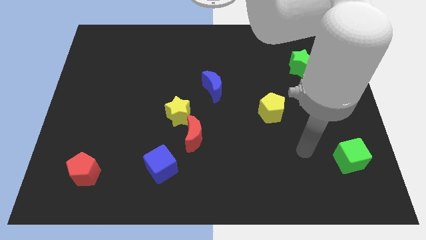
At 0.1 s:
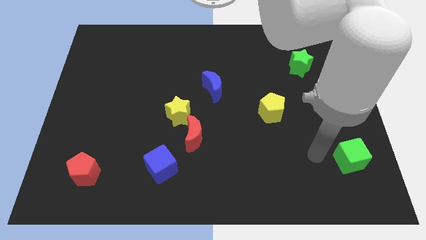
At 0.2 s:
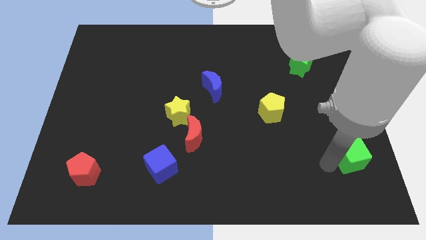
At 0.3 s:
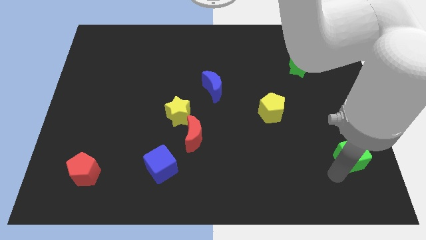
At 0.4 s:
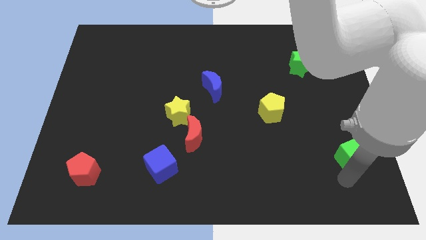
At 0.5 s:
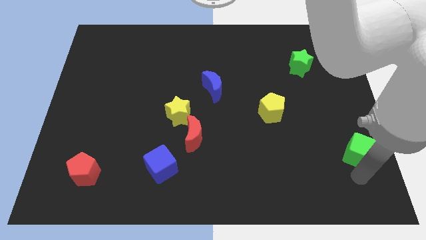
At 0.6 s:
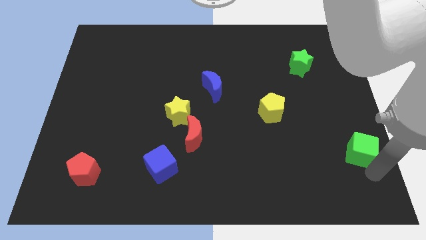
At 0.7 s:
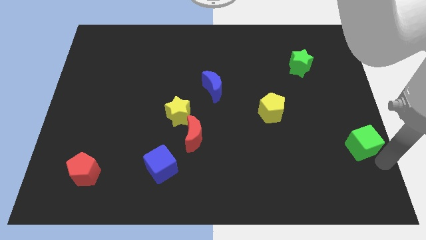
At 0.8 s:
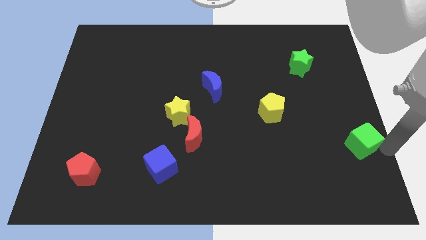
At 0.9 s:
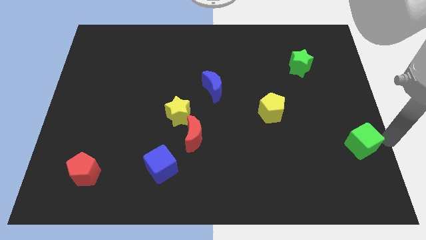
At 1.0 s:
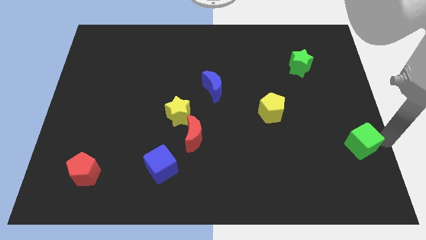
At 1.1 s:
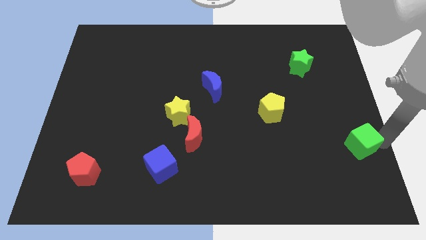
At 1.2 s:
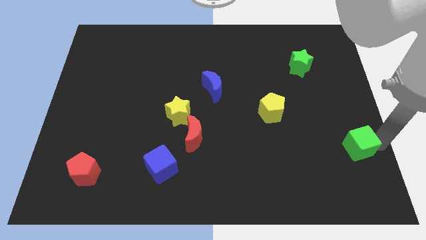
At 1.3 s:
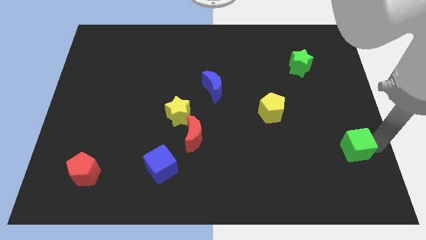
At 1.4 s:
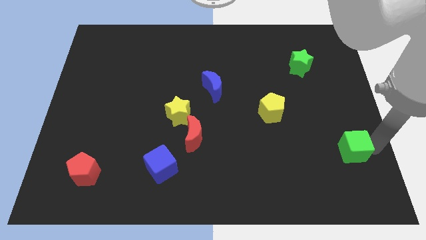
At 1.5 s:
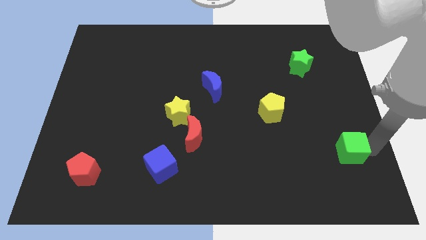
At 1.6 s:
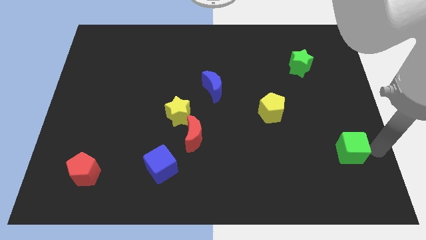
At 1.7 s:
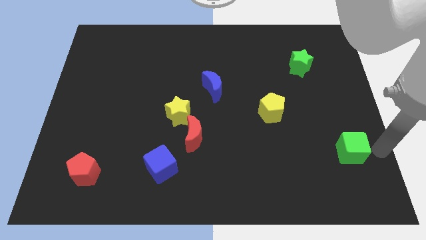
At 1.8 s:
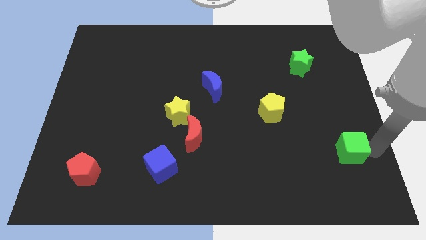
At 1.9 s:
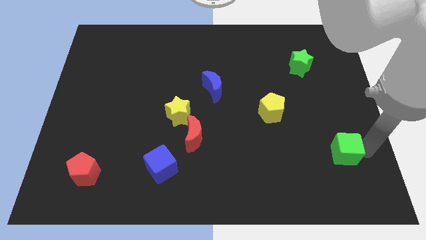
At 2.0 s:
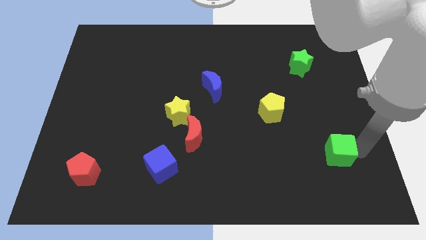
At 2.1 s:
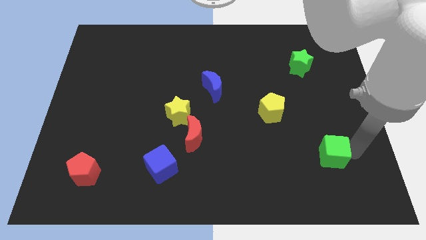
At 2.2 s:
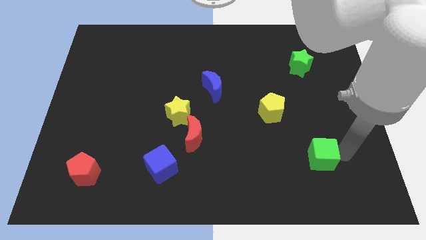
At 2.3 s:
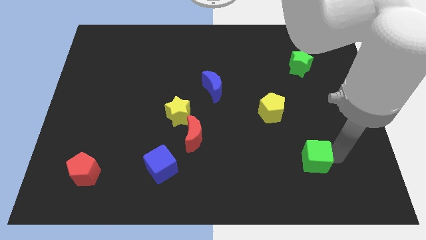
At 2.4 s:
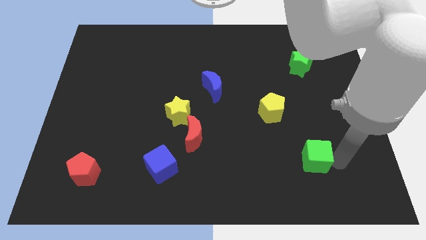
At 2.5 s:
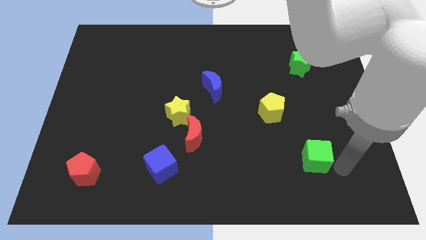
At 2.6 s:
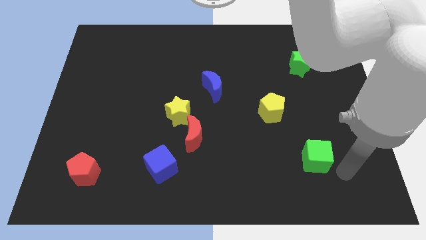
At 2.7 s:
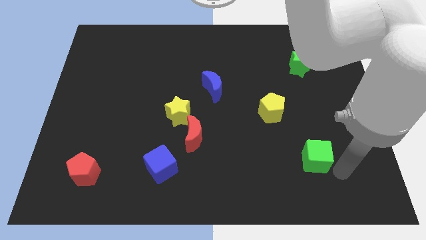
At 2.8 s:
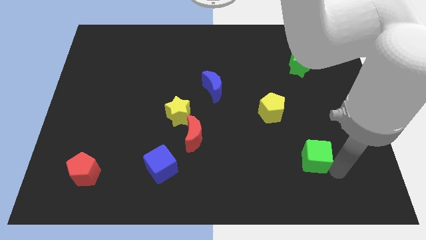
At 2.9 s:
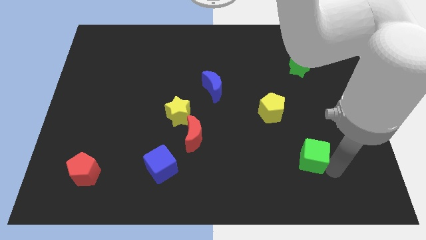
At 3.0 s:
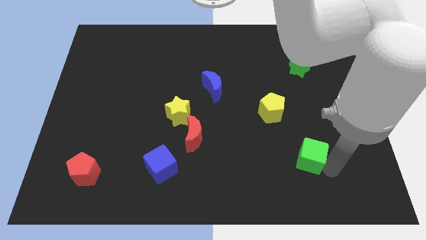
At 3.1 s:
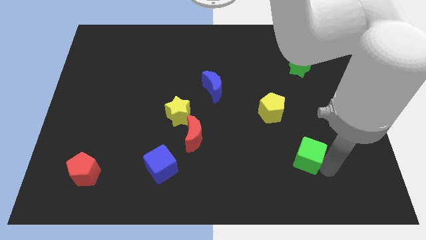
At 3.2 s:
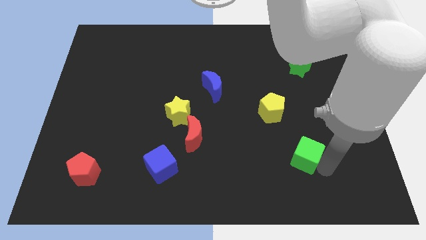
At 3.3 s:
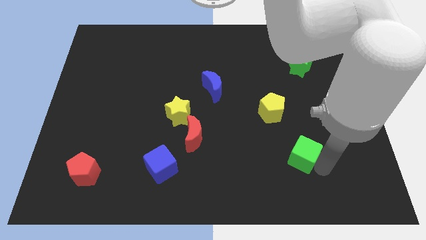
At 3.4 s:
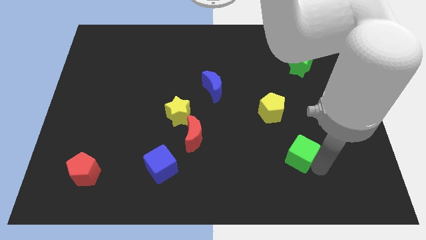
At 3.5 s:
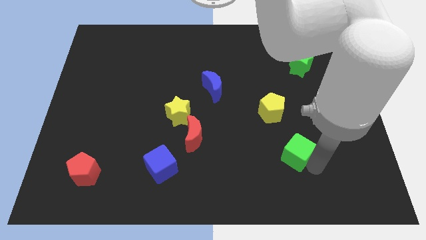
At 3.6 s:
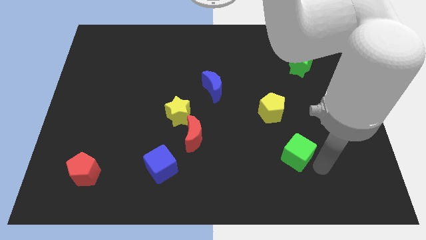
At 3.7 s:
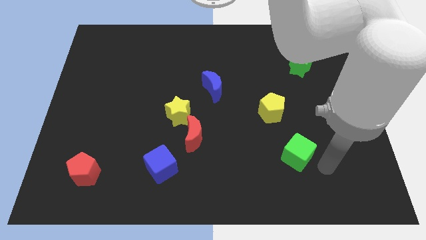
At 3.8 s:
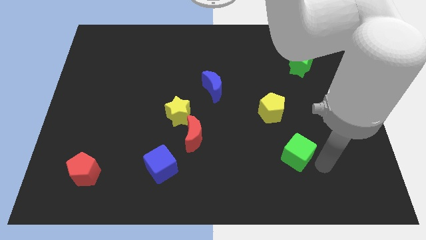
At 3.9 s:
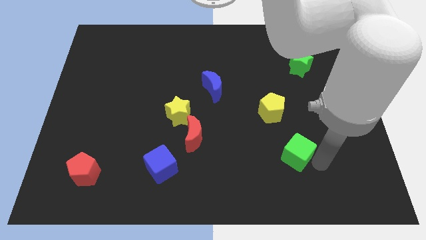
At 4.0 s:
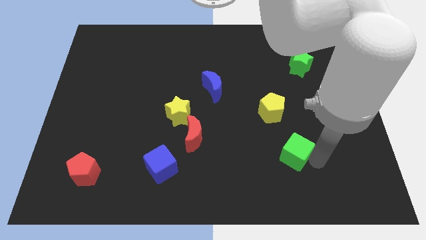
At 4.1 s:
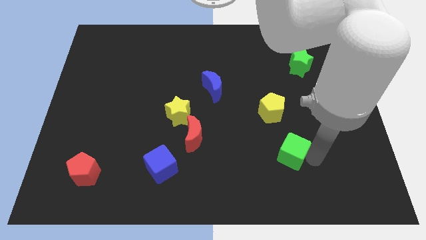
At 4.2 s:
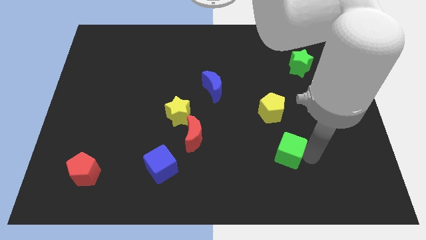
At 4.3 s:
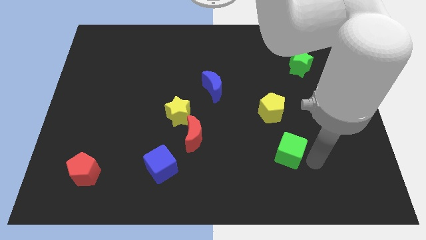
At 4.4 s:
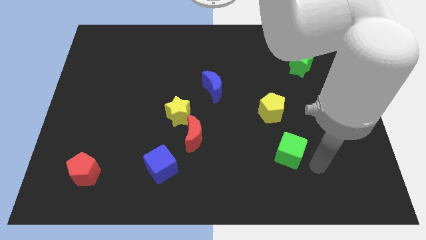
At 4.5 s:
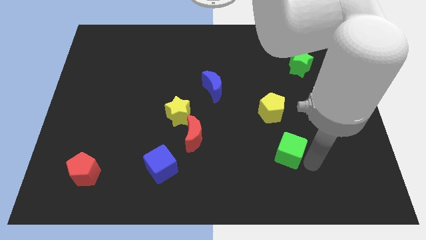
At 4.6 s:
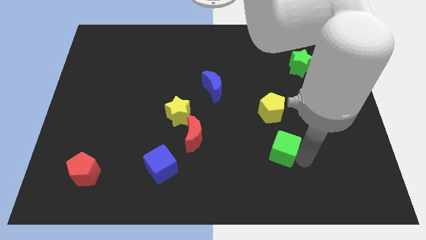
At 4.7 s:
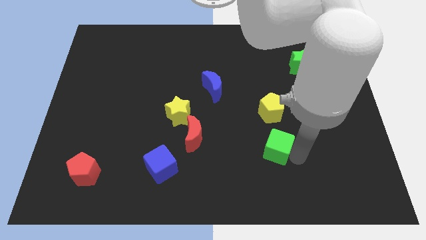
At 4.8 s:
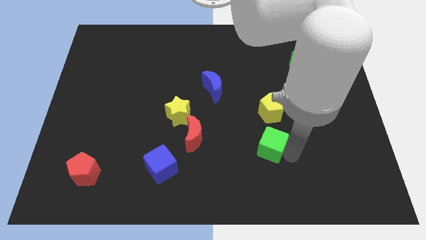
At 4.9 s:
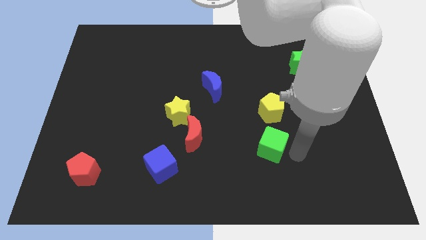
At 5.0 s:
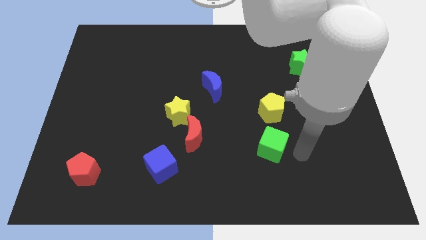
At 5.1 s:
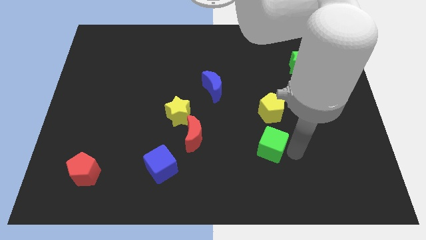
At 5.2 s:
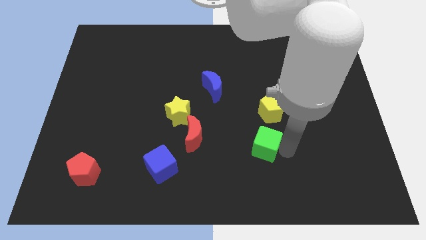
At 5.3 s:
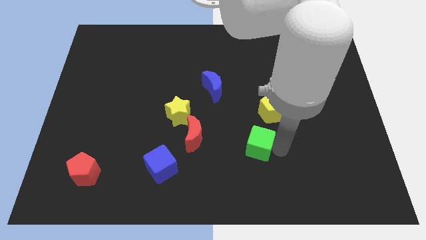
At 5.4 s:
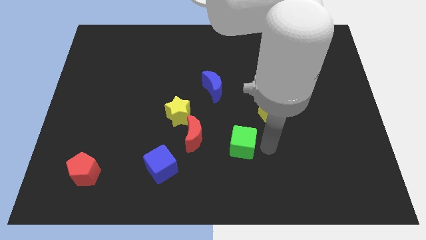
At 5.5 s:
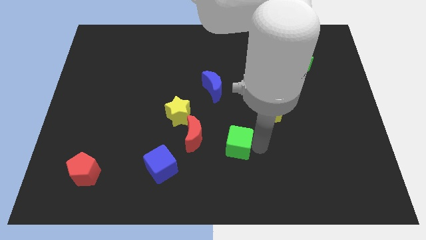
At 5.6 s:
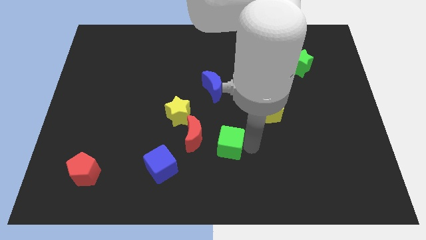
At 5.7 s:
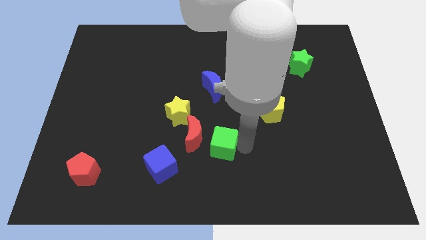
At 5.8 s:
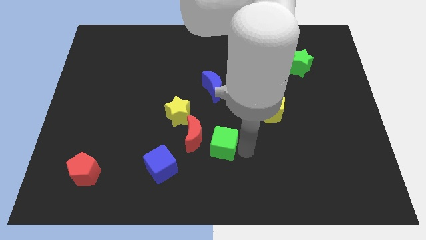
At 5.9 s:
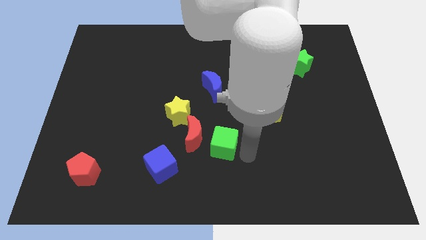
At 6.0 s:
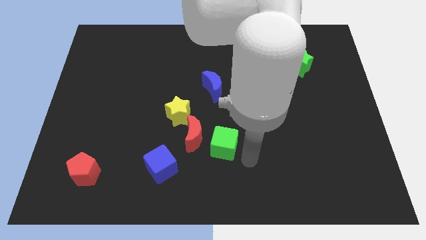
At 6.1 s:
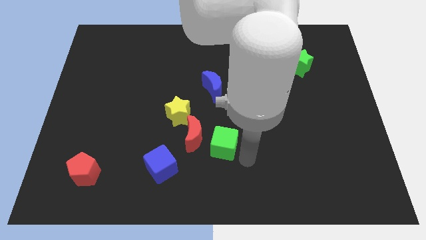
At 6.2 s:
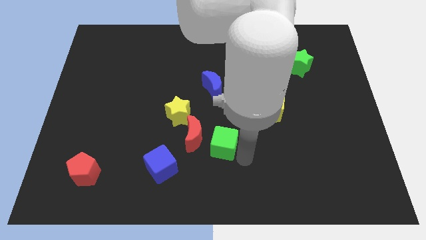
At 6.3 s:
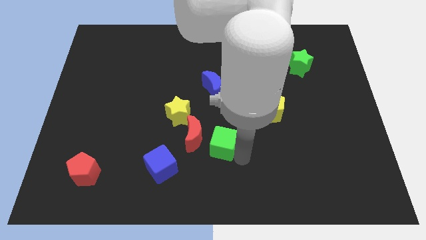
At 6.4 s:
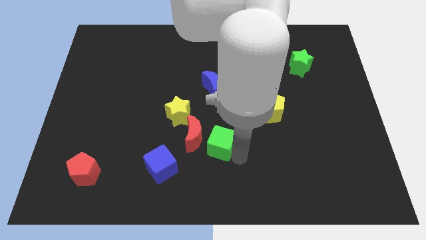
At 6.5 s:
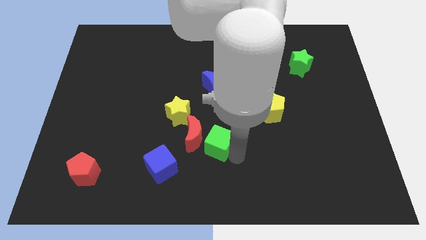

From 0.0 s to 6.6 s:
put the green cube close to the red moon
